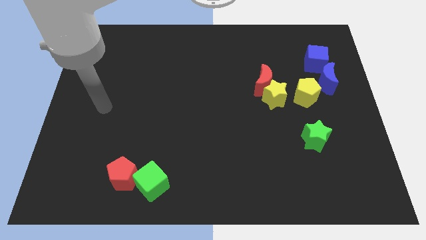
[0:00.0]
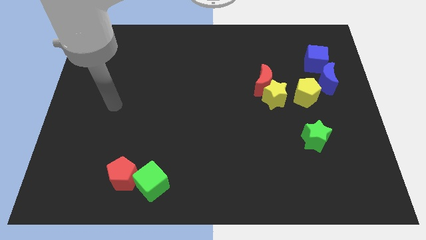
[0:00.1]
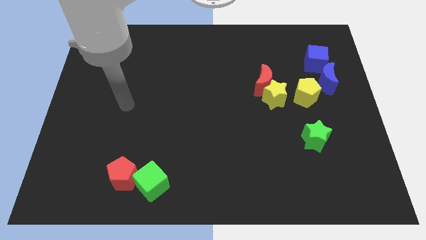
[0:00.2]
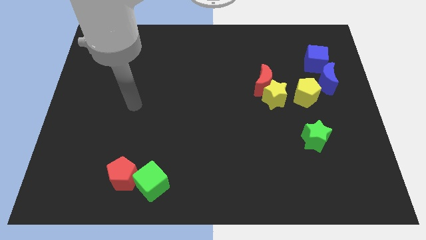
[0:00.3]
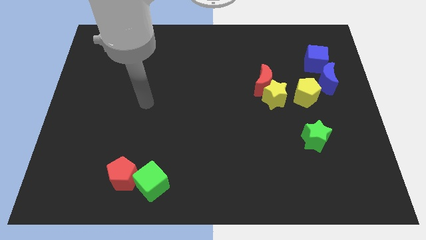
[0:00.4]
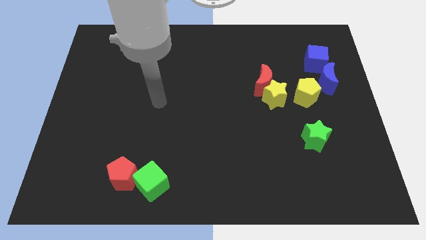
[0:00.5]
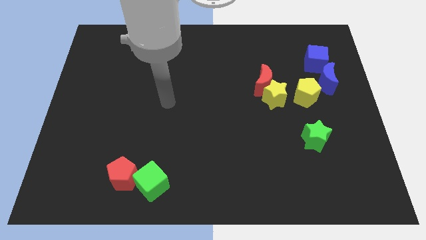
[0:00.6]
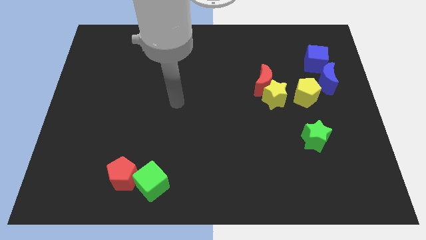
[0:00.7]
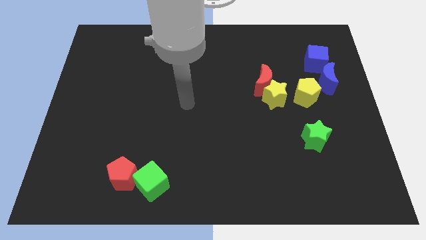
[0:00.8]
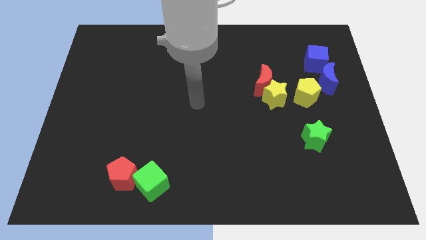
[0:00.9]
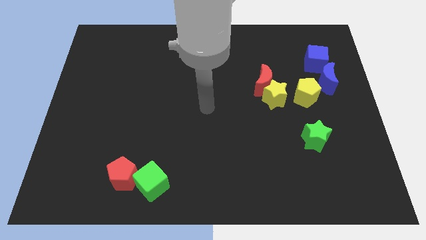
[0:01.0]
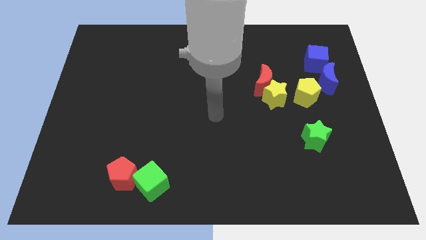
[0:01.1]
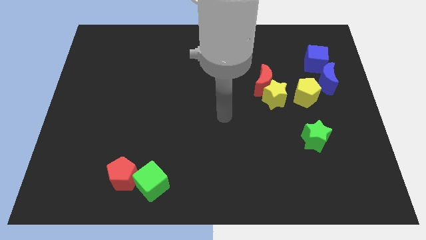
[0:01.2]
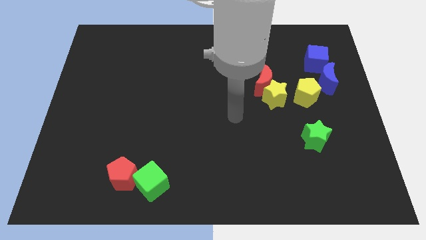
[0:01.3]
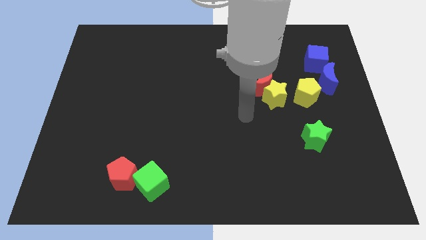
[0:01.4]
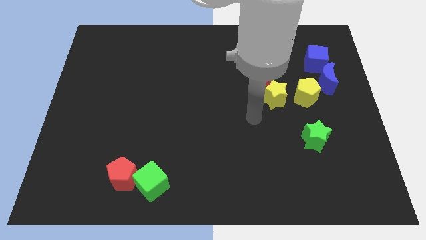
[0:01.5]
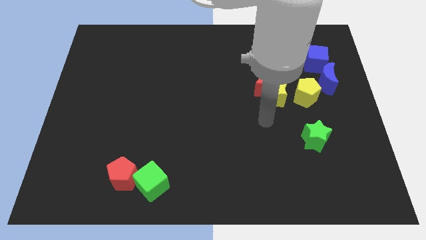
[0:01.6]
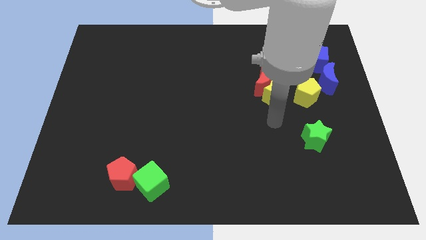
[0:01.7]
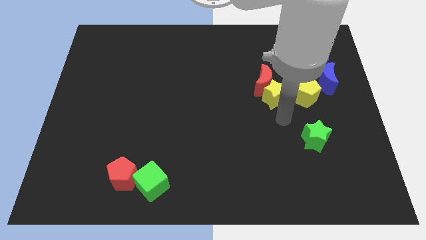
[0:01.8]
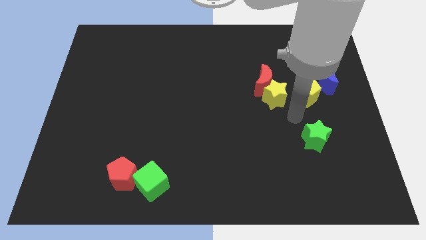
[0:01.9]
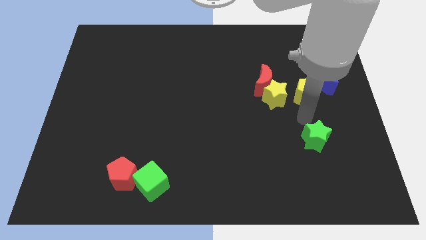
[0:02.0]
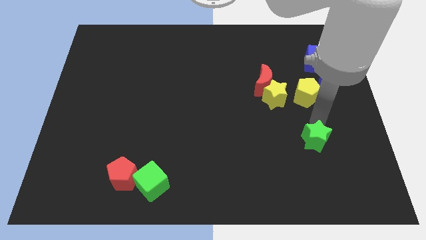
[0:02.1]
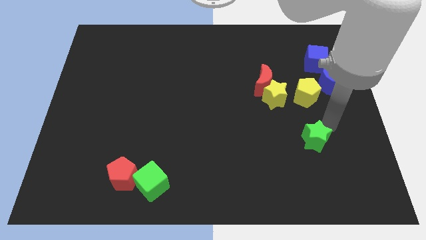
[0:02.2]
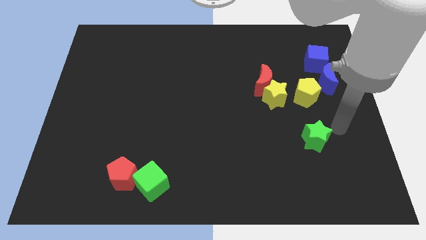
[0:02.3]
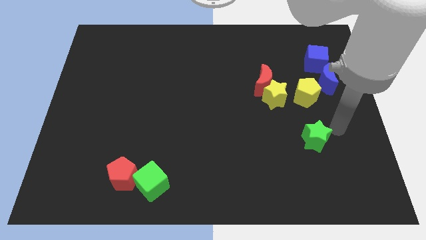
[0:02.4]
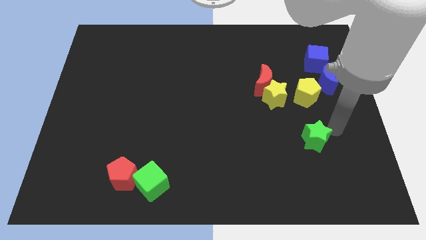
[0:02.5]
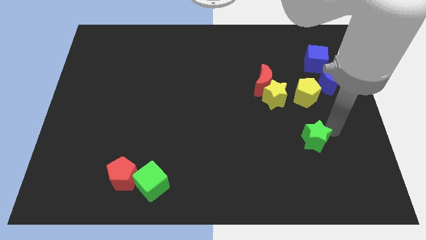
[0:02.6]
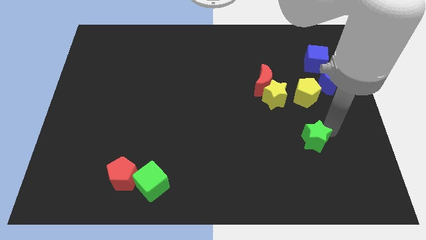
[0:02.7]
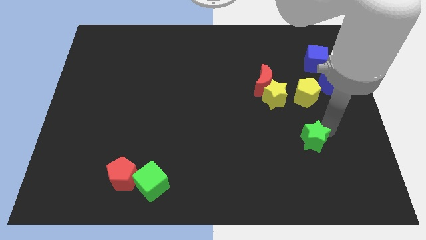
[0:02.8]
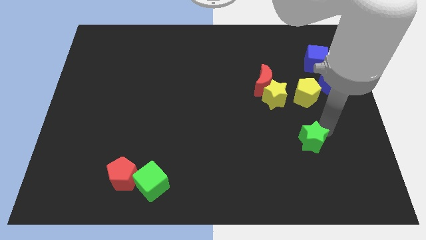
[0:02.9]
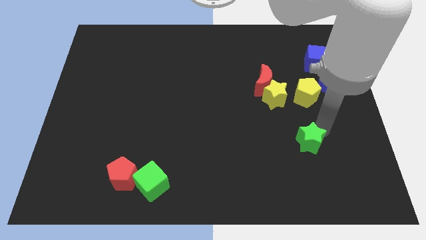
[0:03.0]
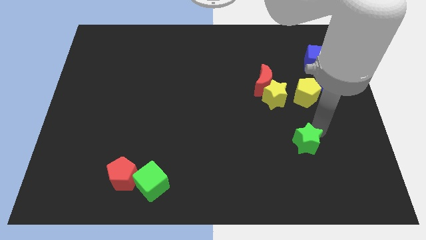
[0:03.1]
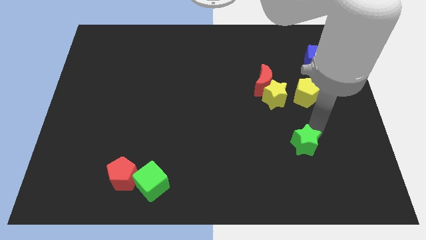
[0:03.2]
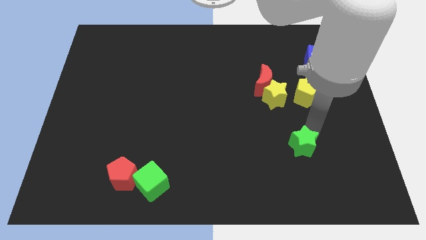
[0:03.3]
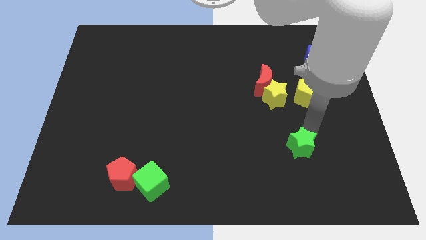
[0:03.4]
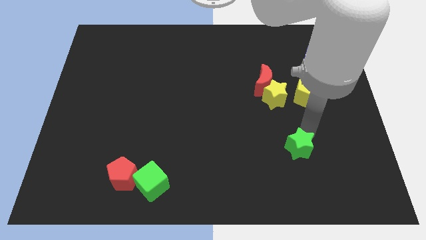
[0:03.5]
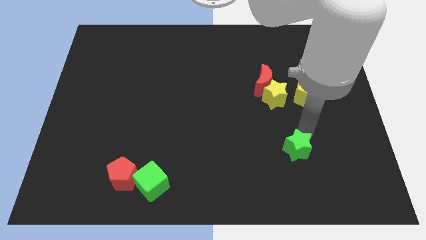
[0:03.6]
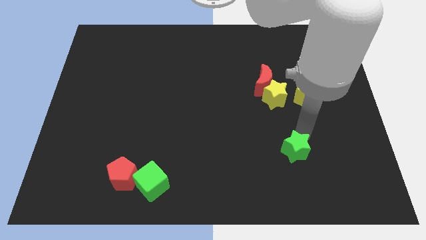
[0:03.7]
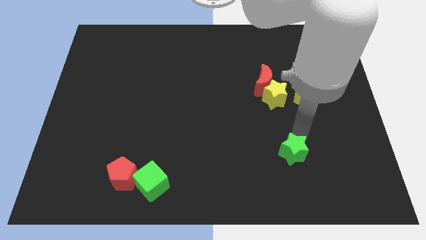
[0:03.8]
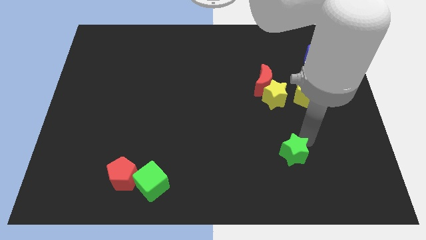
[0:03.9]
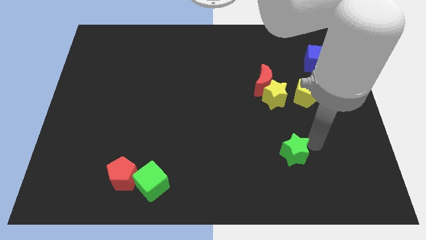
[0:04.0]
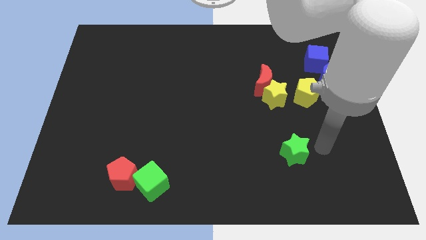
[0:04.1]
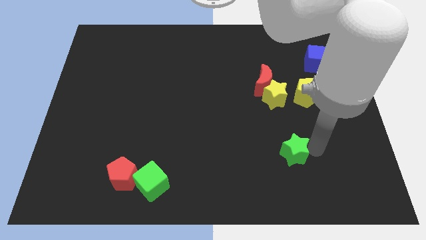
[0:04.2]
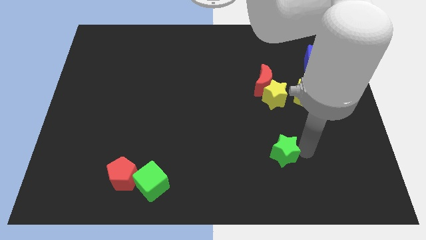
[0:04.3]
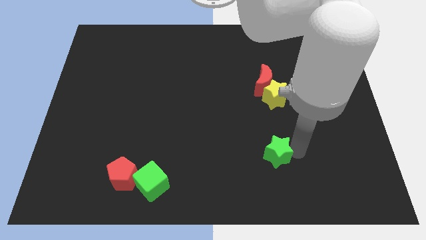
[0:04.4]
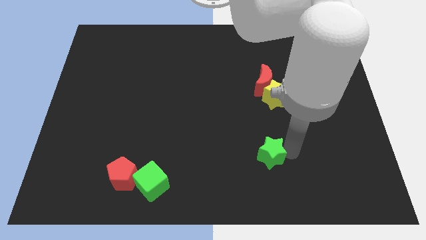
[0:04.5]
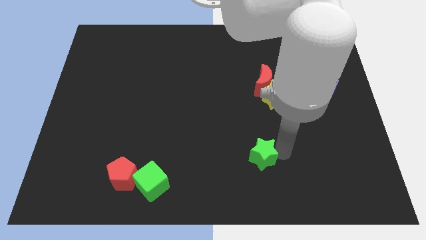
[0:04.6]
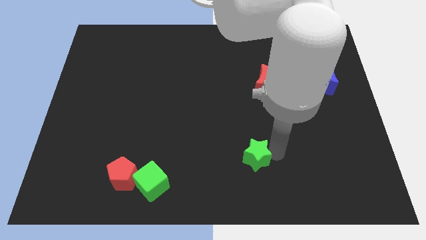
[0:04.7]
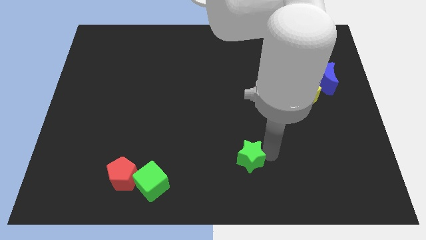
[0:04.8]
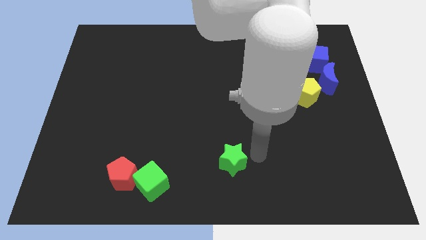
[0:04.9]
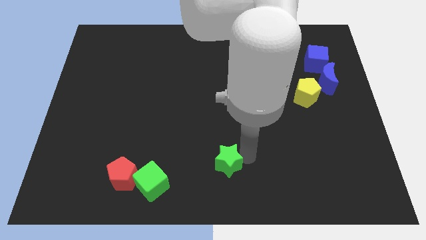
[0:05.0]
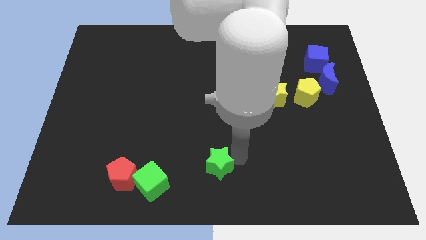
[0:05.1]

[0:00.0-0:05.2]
push the green star right of the green cube
